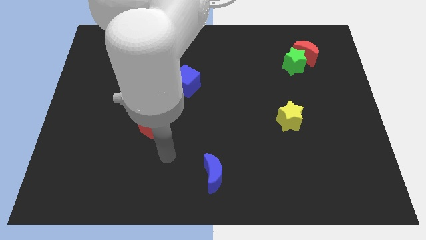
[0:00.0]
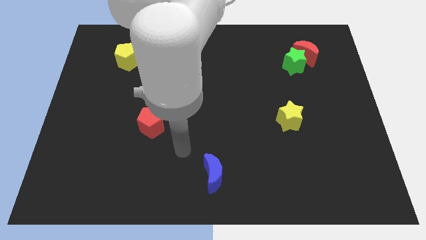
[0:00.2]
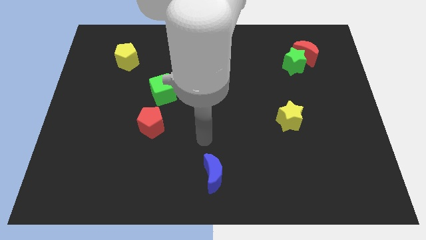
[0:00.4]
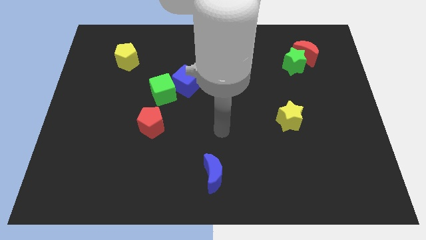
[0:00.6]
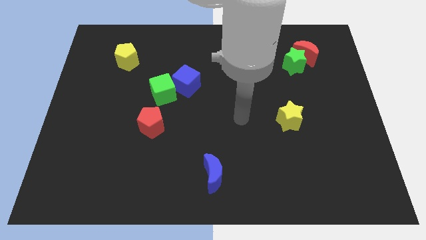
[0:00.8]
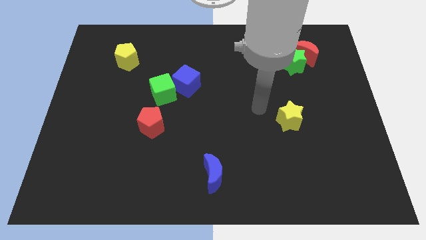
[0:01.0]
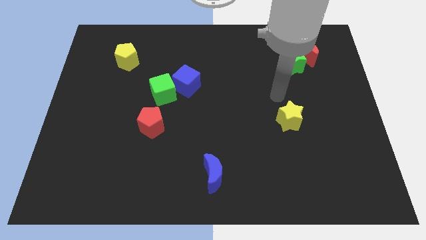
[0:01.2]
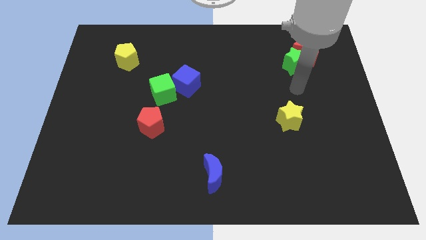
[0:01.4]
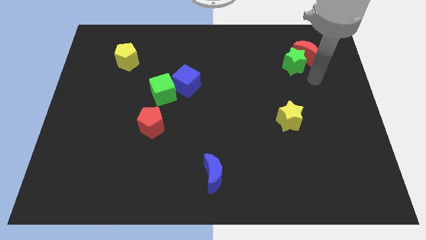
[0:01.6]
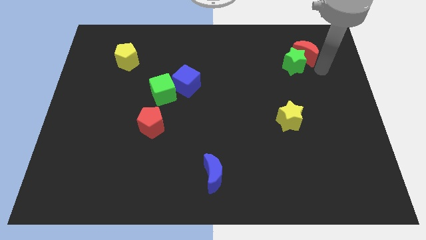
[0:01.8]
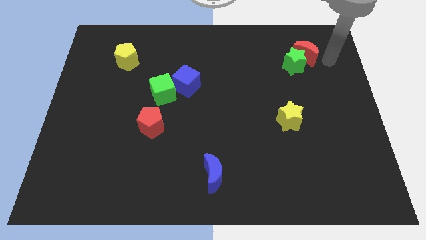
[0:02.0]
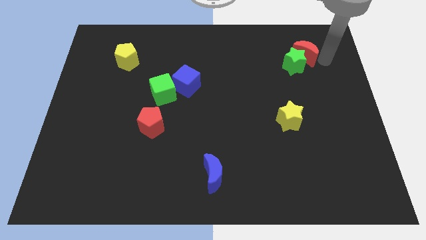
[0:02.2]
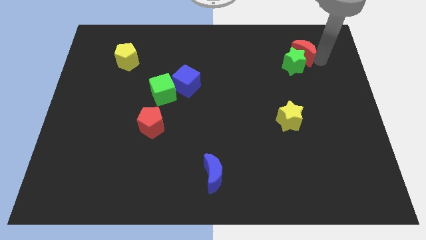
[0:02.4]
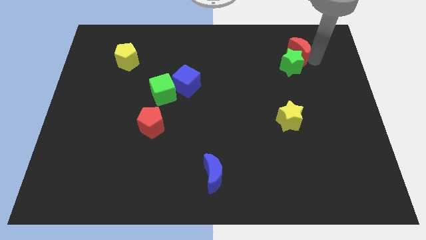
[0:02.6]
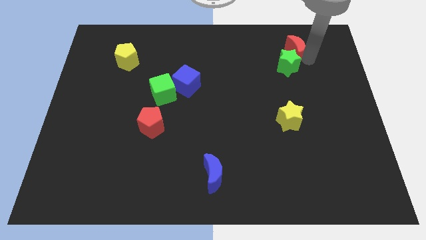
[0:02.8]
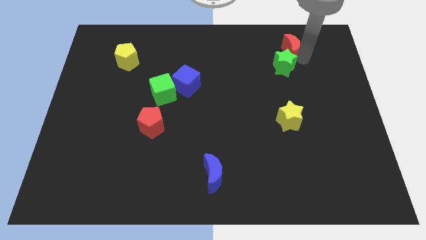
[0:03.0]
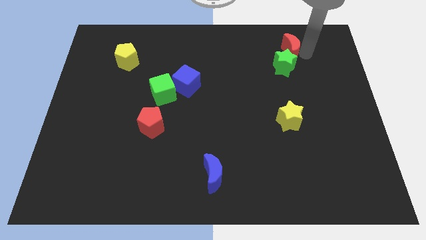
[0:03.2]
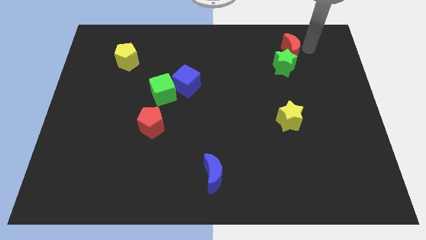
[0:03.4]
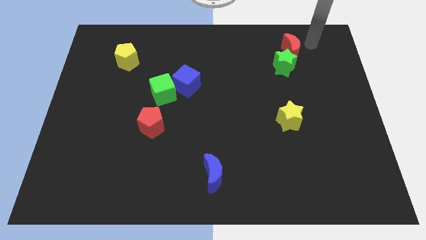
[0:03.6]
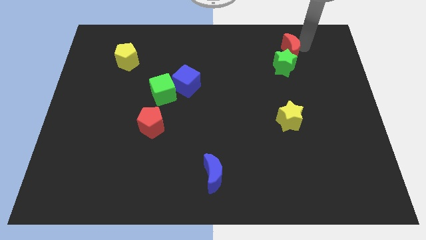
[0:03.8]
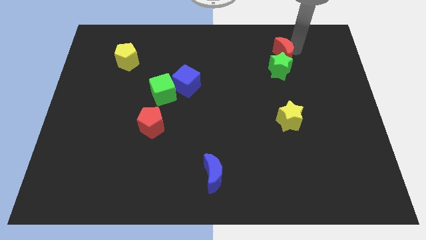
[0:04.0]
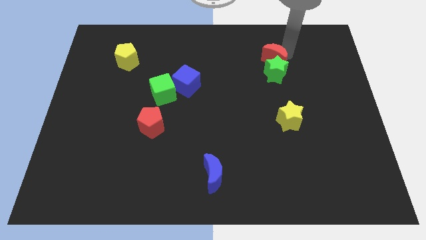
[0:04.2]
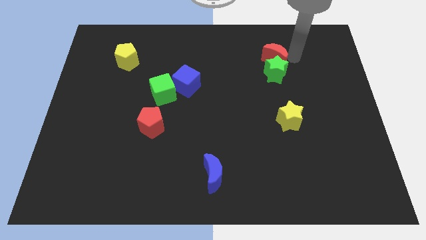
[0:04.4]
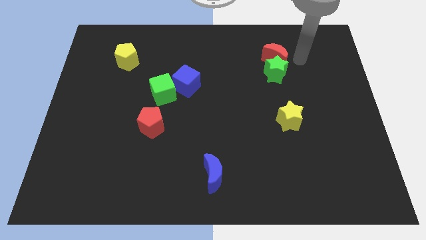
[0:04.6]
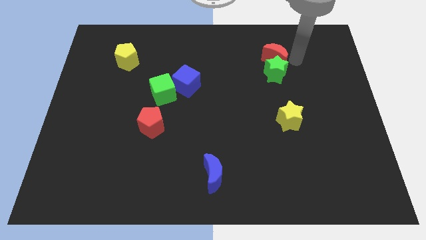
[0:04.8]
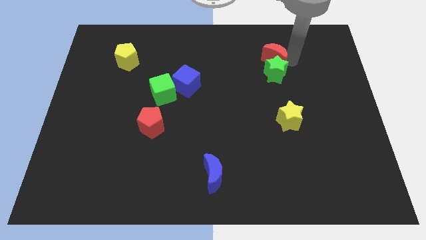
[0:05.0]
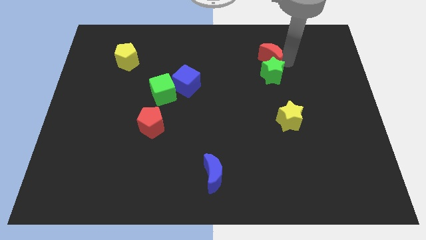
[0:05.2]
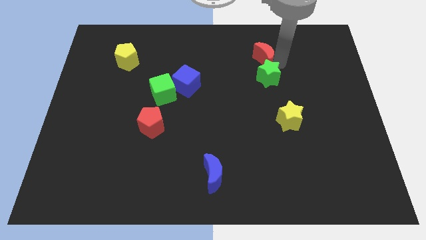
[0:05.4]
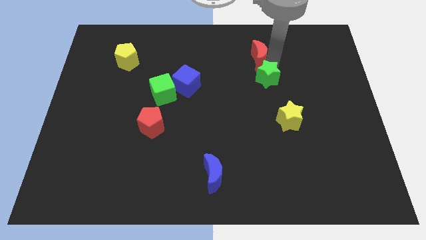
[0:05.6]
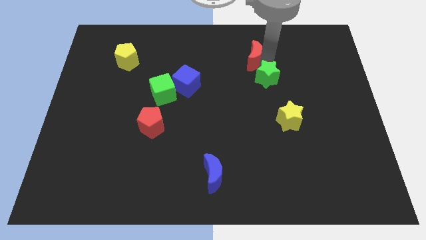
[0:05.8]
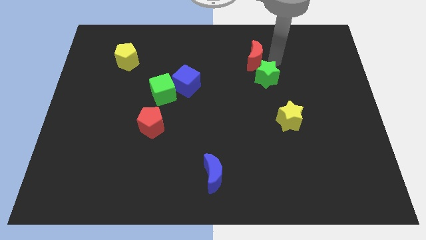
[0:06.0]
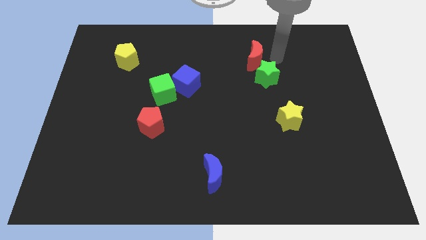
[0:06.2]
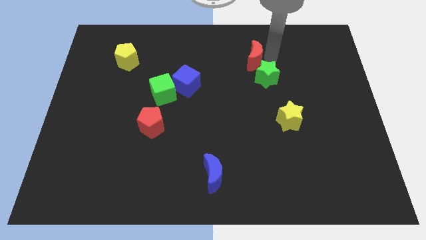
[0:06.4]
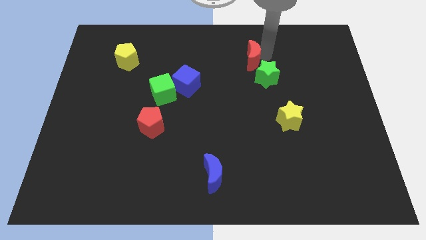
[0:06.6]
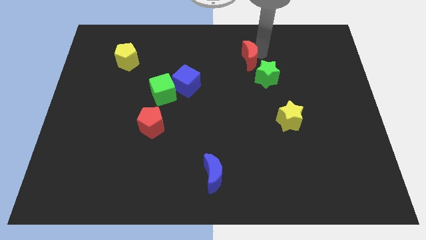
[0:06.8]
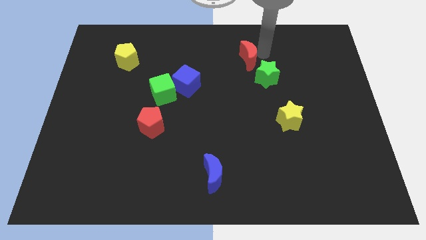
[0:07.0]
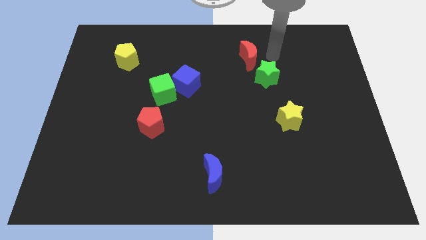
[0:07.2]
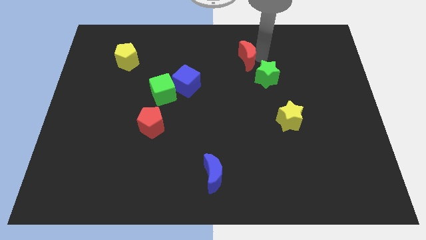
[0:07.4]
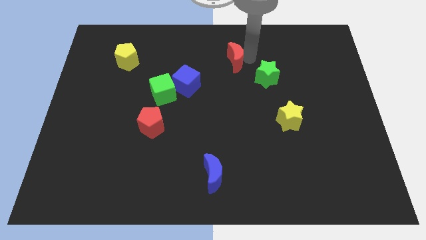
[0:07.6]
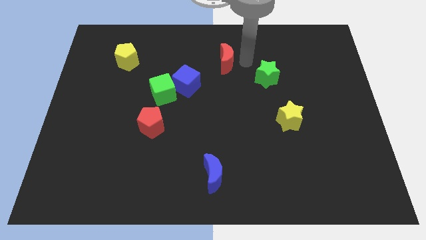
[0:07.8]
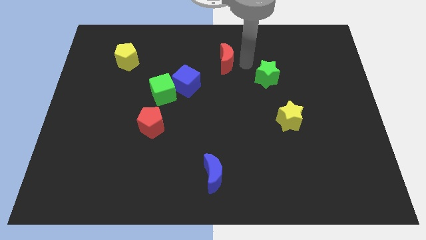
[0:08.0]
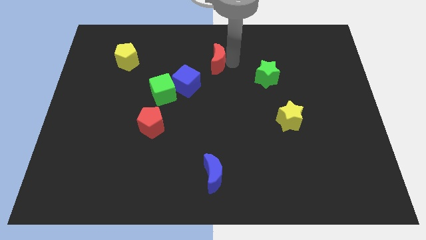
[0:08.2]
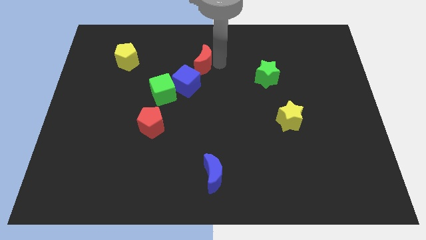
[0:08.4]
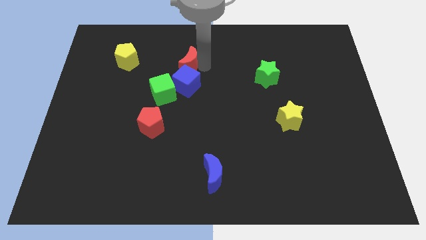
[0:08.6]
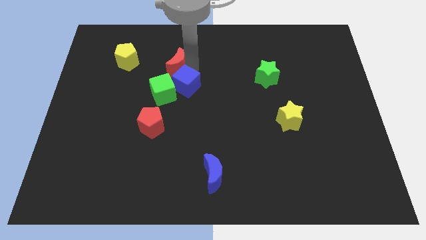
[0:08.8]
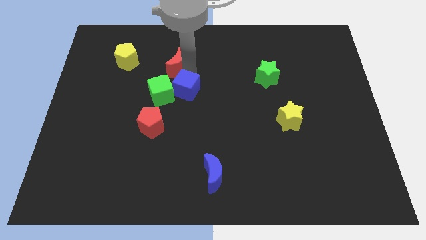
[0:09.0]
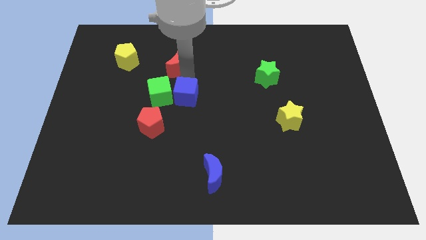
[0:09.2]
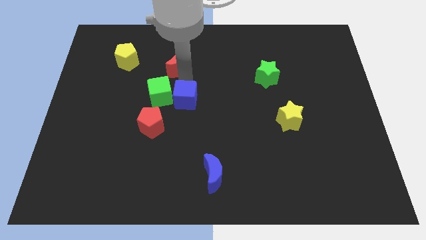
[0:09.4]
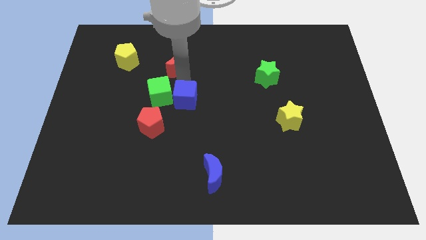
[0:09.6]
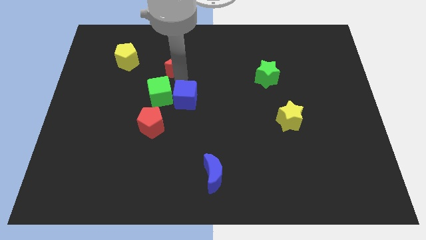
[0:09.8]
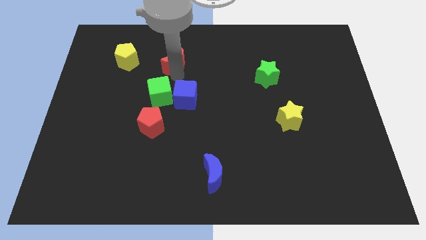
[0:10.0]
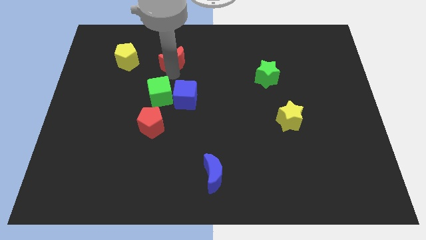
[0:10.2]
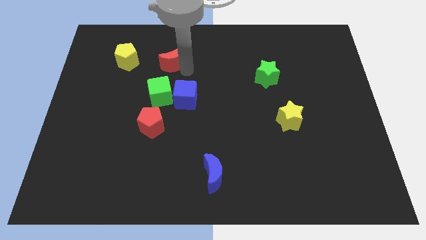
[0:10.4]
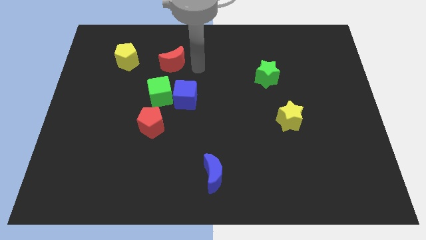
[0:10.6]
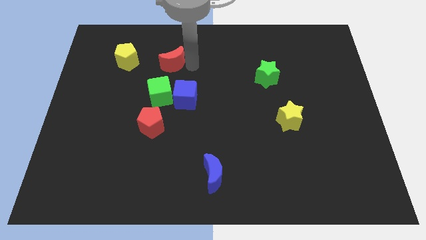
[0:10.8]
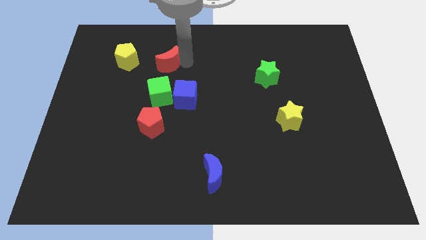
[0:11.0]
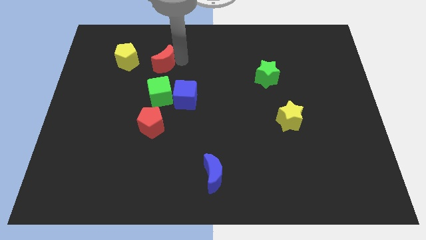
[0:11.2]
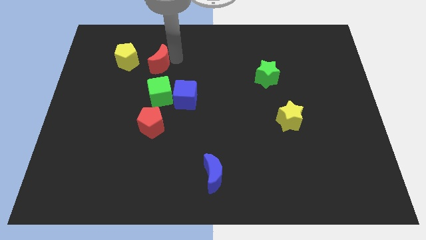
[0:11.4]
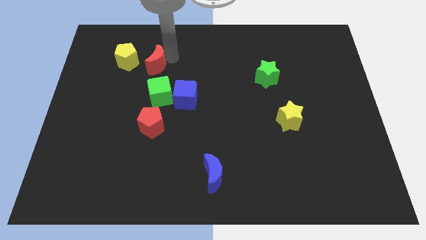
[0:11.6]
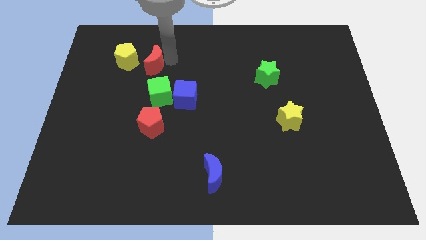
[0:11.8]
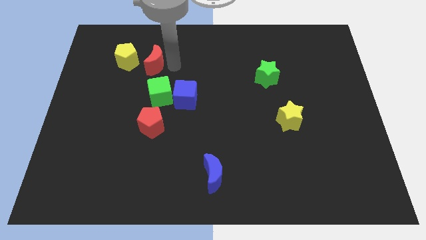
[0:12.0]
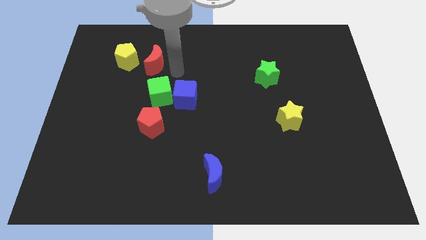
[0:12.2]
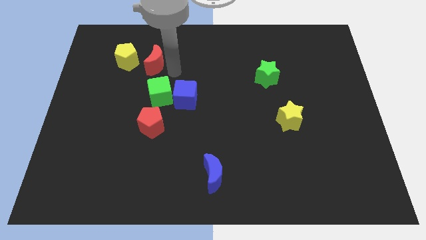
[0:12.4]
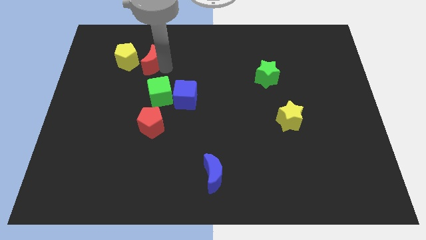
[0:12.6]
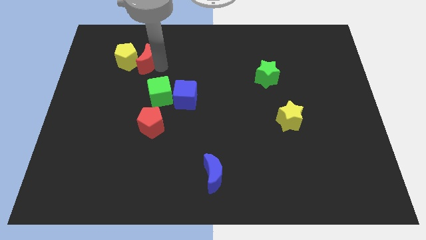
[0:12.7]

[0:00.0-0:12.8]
slide the red moon next to the yellow pentagon

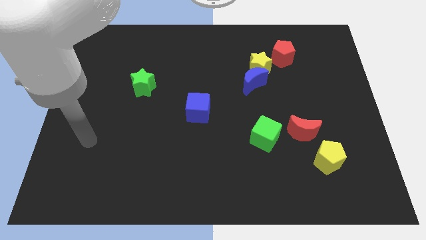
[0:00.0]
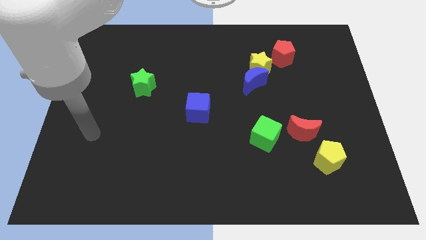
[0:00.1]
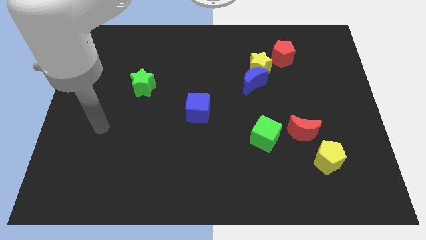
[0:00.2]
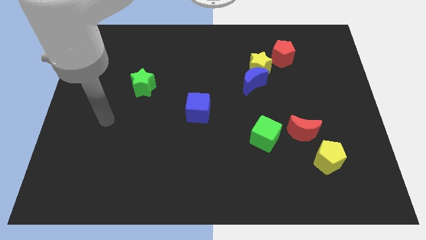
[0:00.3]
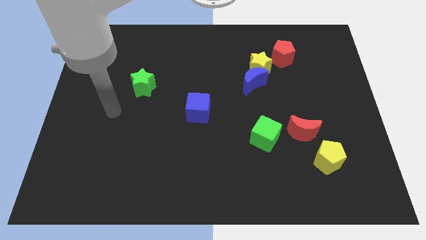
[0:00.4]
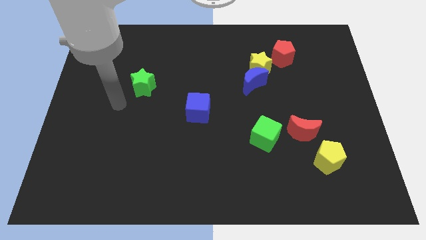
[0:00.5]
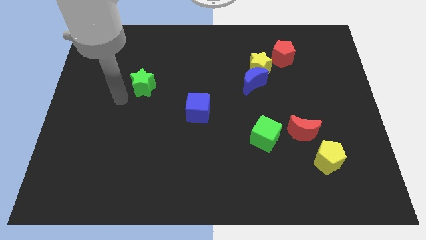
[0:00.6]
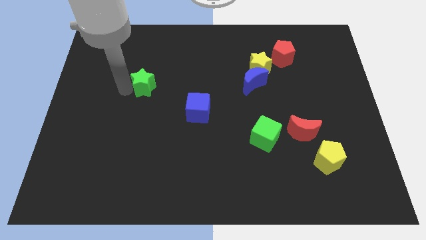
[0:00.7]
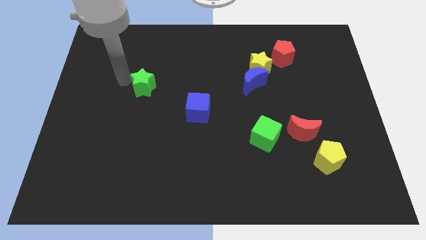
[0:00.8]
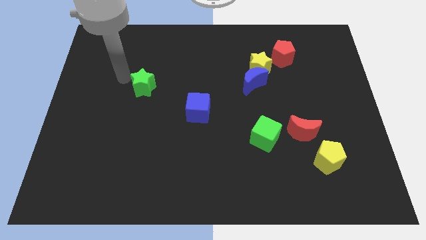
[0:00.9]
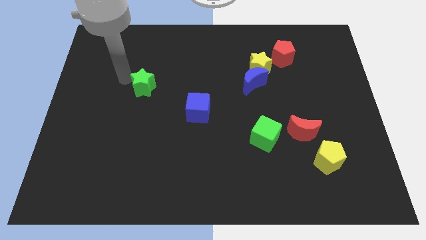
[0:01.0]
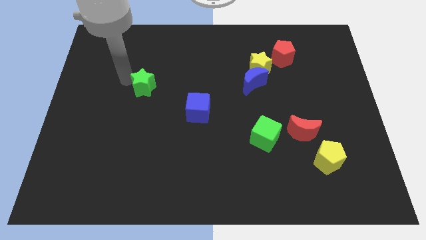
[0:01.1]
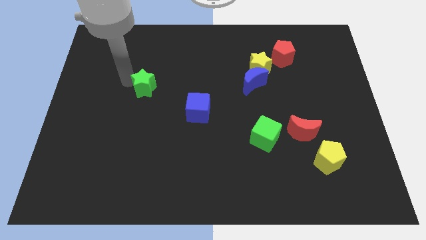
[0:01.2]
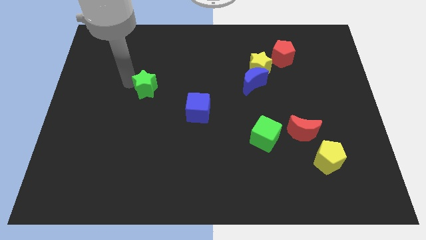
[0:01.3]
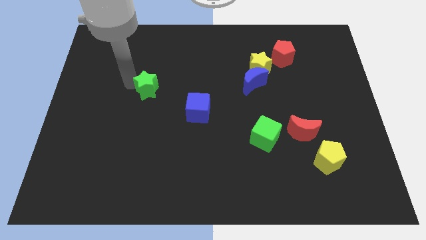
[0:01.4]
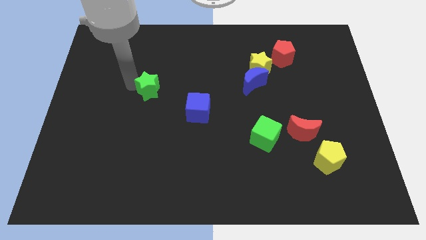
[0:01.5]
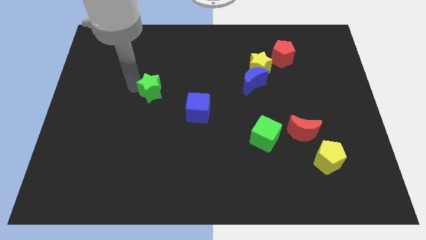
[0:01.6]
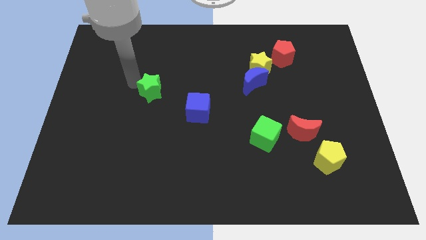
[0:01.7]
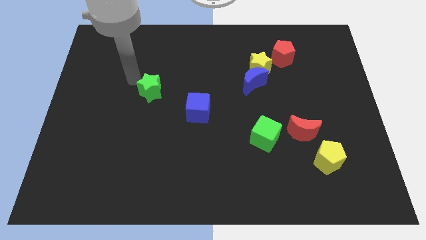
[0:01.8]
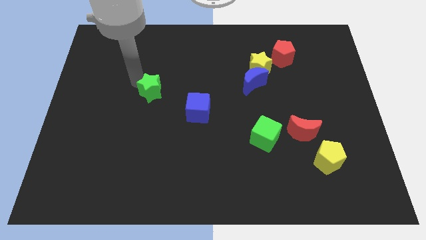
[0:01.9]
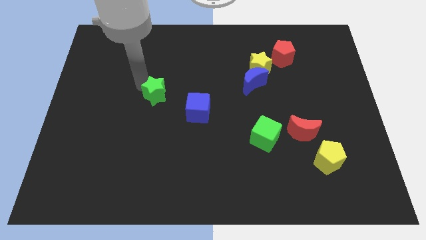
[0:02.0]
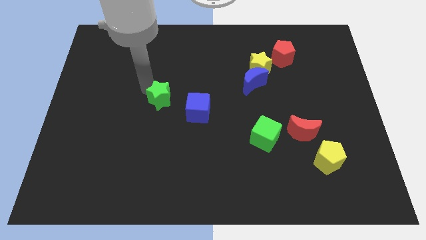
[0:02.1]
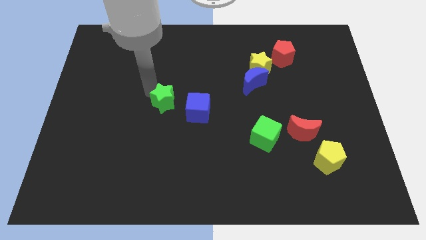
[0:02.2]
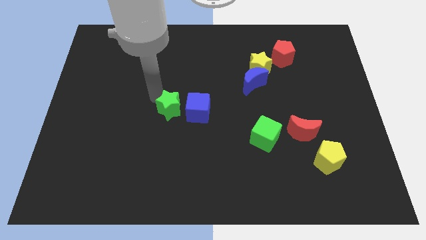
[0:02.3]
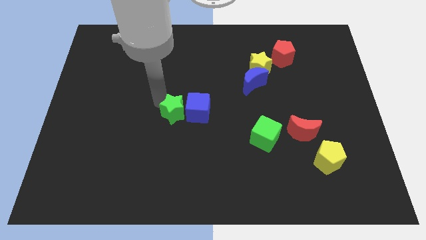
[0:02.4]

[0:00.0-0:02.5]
move the green star close to the blue cube
